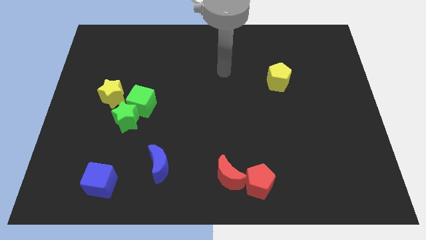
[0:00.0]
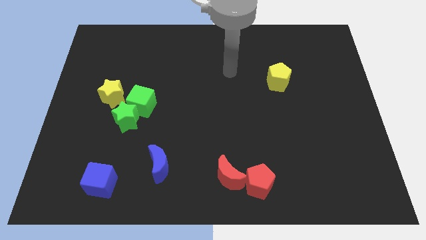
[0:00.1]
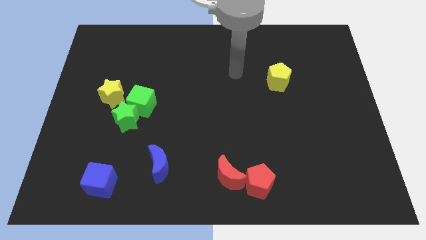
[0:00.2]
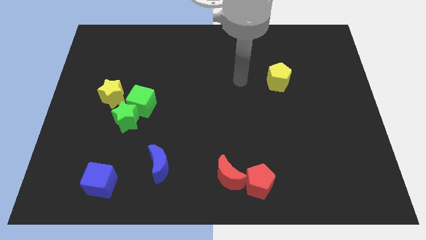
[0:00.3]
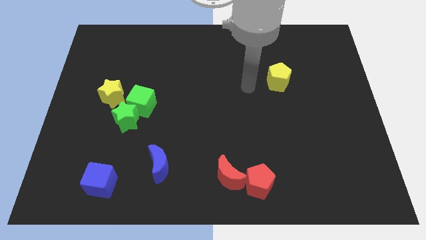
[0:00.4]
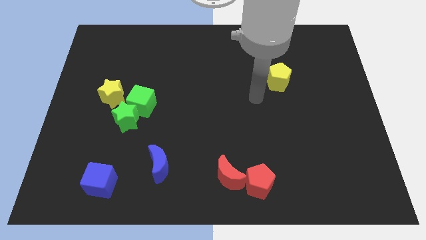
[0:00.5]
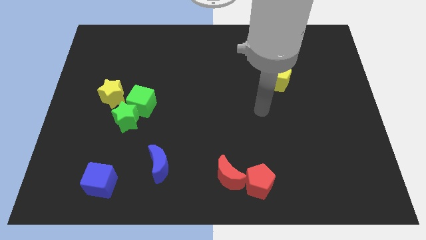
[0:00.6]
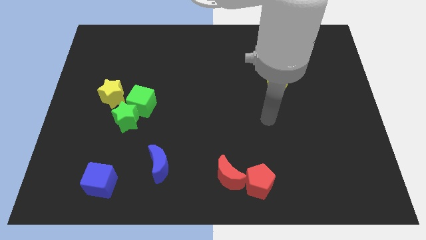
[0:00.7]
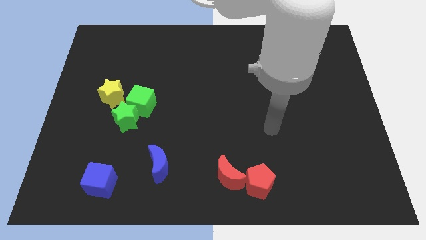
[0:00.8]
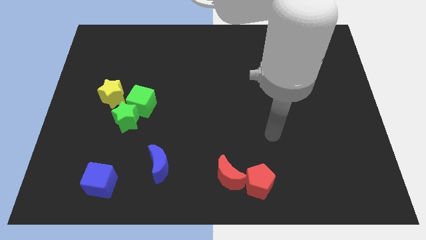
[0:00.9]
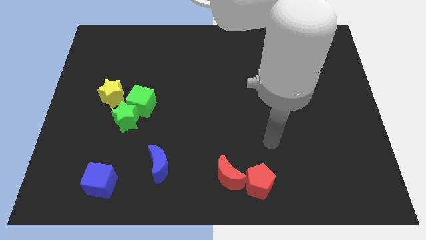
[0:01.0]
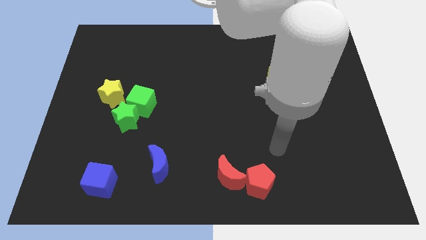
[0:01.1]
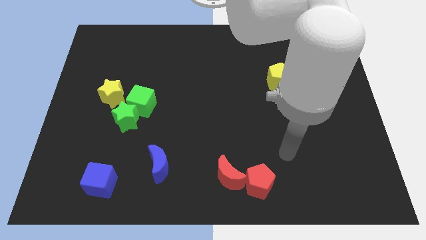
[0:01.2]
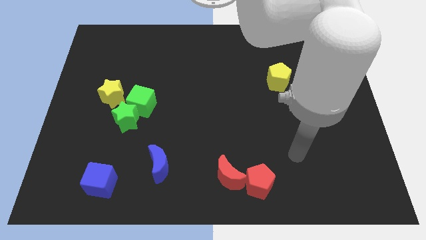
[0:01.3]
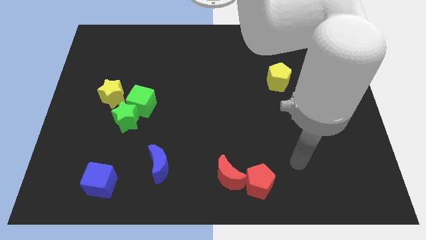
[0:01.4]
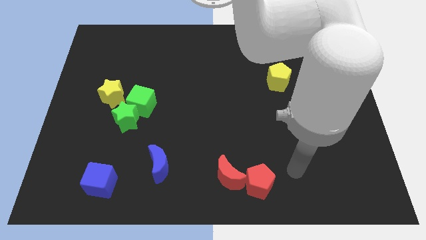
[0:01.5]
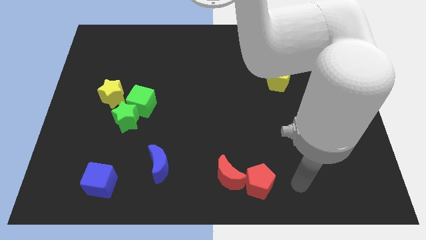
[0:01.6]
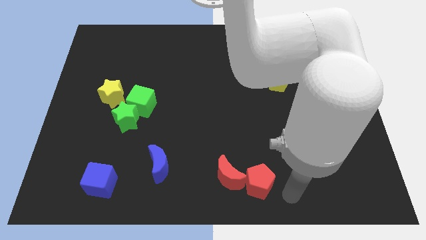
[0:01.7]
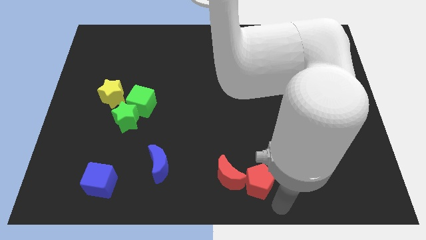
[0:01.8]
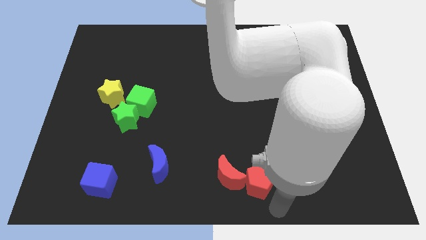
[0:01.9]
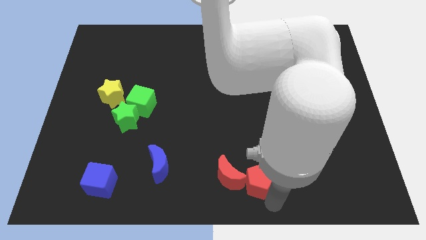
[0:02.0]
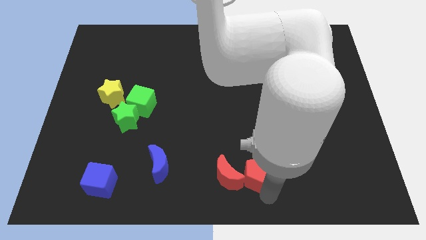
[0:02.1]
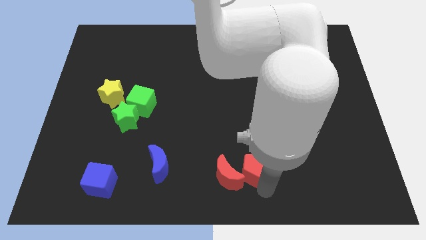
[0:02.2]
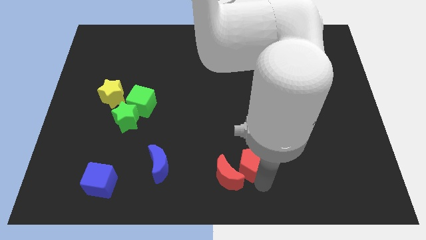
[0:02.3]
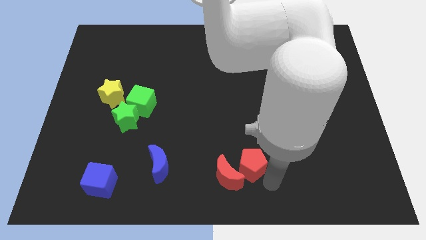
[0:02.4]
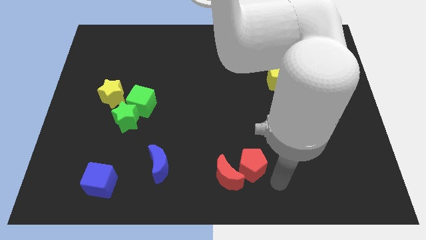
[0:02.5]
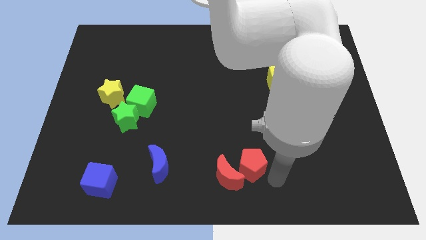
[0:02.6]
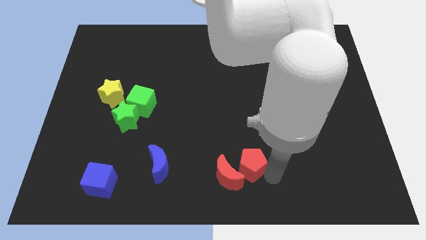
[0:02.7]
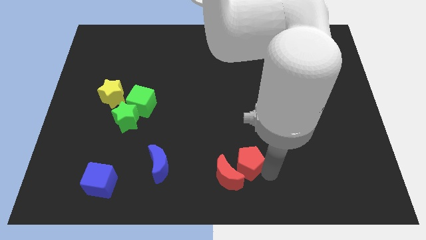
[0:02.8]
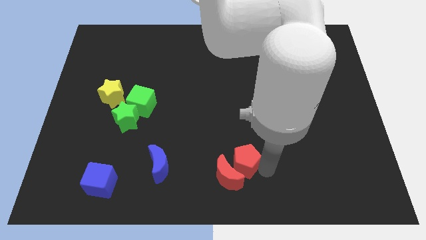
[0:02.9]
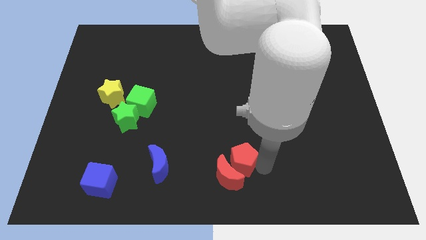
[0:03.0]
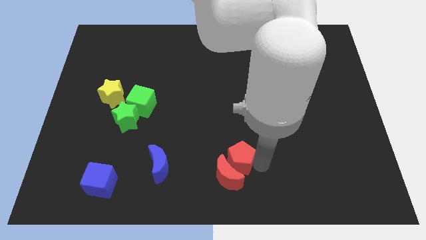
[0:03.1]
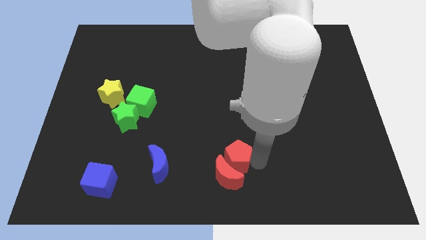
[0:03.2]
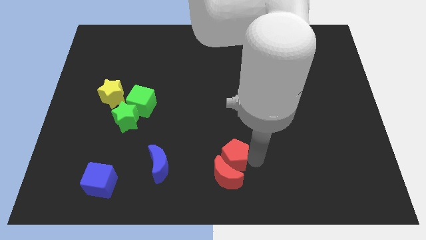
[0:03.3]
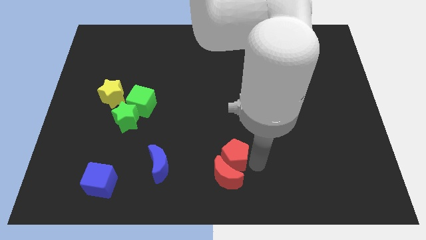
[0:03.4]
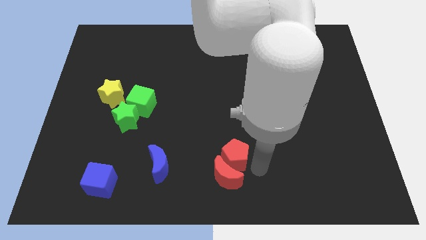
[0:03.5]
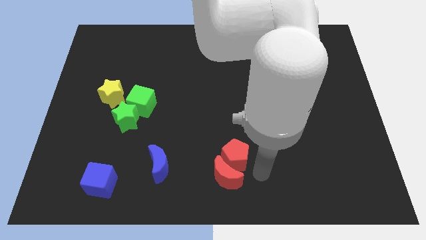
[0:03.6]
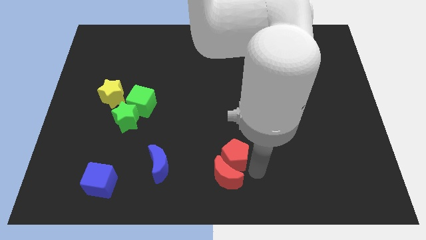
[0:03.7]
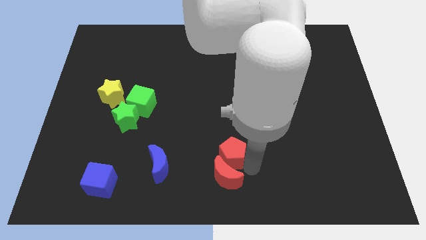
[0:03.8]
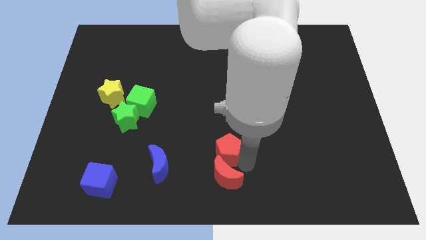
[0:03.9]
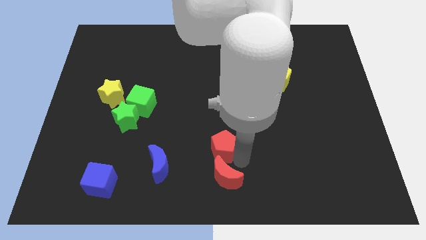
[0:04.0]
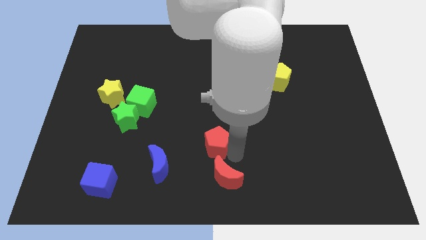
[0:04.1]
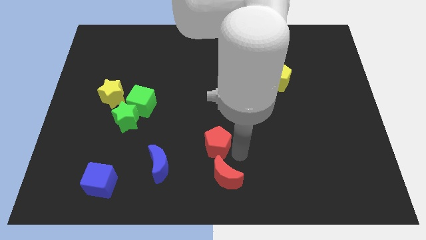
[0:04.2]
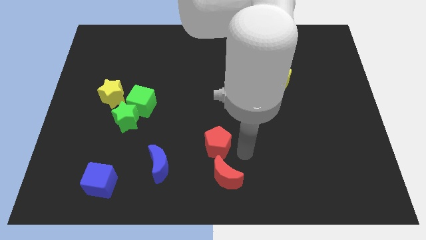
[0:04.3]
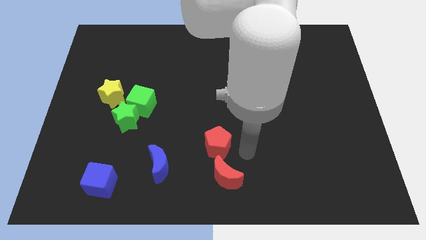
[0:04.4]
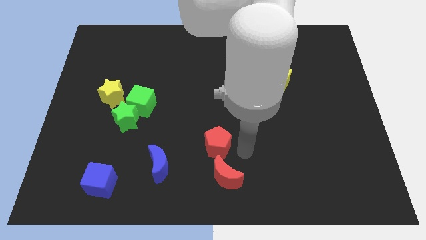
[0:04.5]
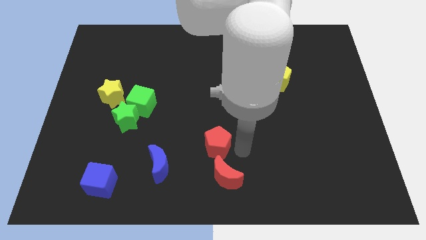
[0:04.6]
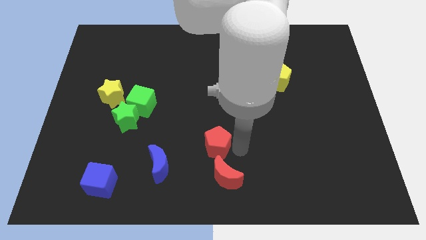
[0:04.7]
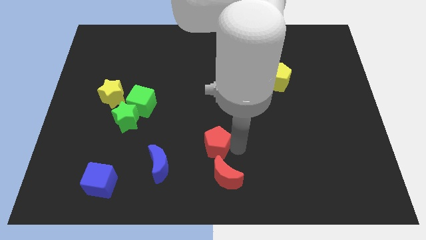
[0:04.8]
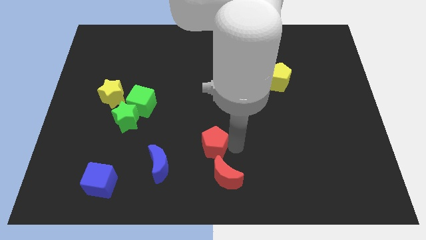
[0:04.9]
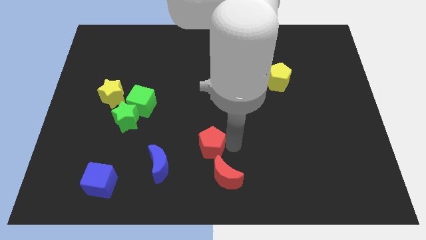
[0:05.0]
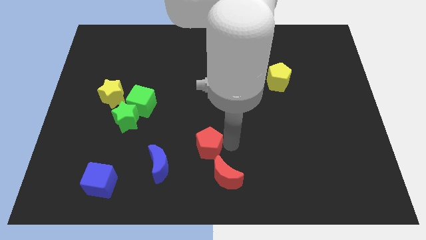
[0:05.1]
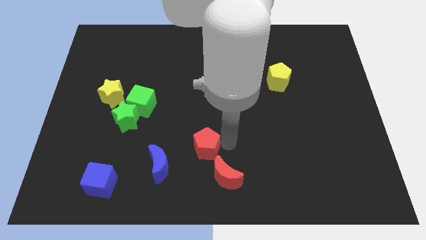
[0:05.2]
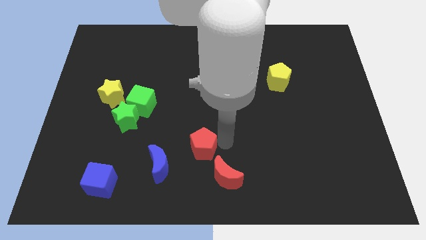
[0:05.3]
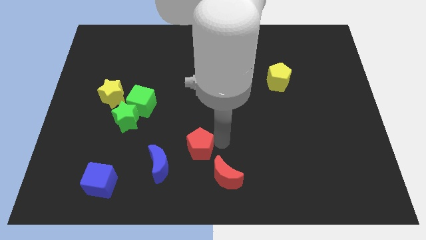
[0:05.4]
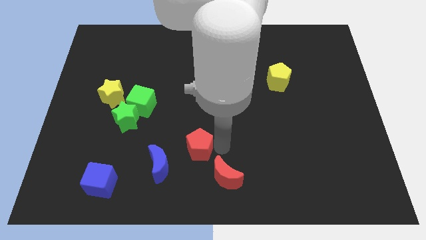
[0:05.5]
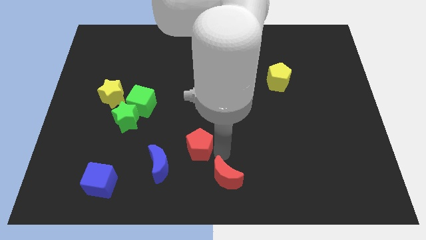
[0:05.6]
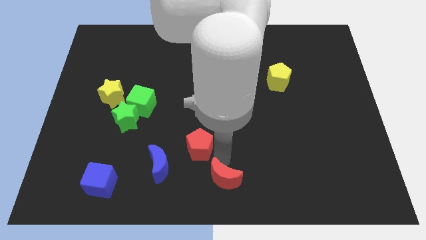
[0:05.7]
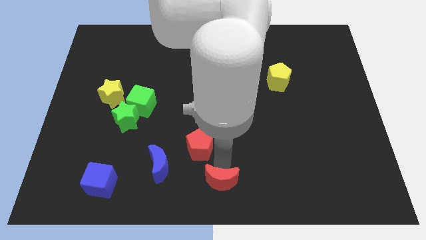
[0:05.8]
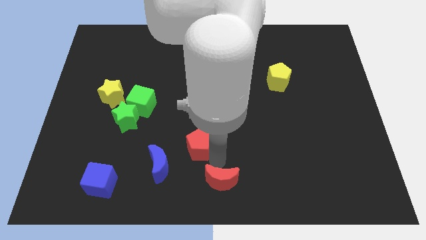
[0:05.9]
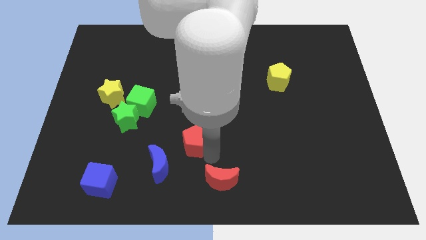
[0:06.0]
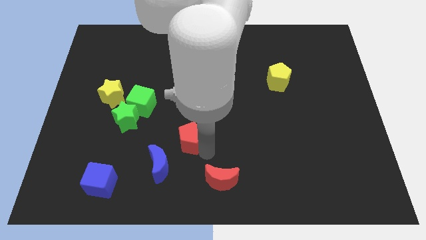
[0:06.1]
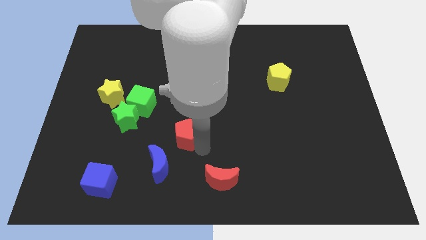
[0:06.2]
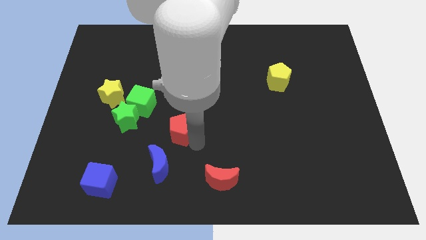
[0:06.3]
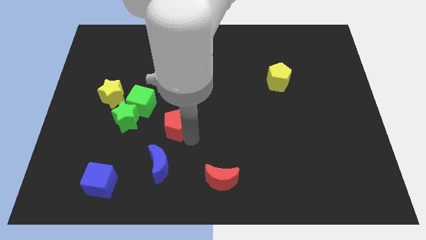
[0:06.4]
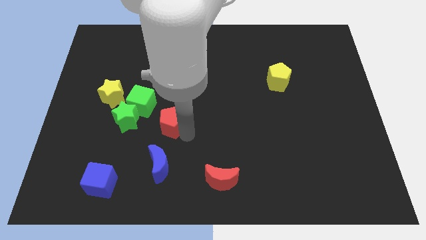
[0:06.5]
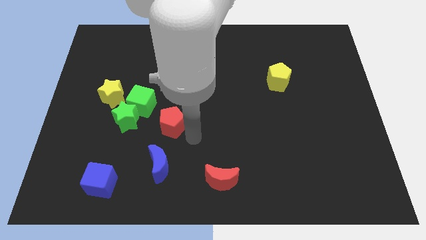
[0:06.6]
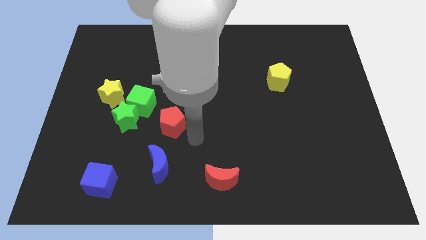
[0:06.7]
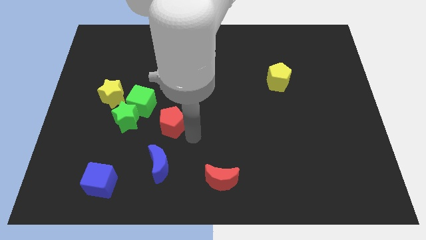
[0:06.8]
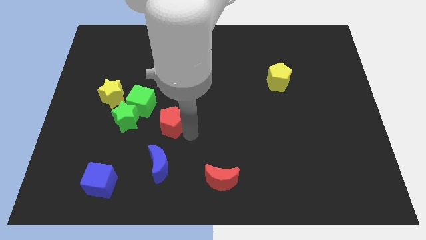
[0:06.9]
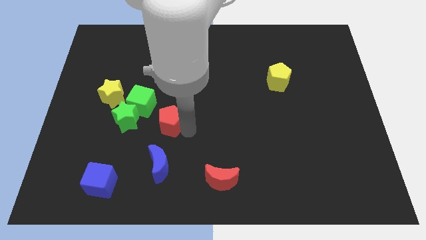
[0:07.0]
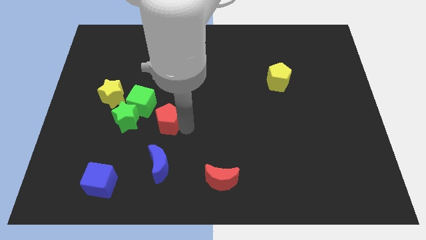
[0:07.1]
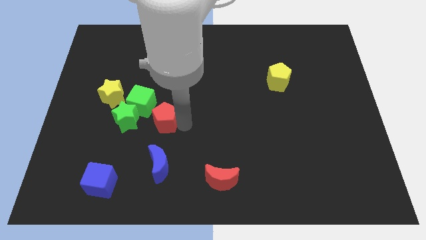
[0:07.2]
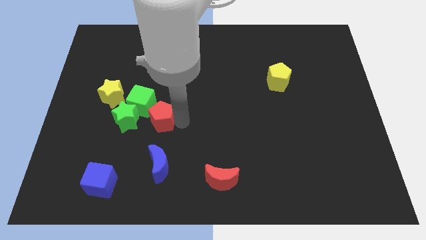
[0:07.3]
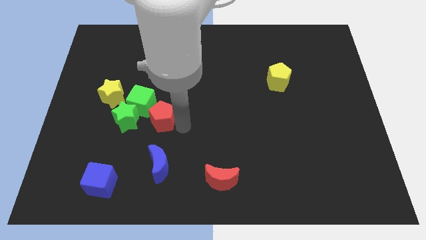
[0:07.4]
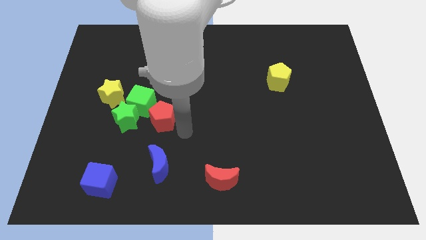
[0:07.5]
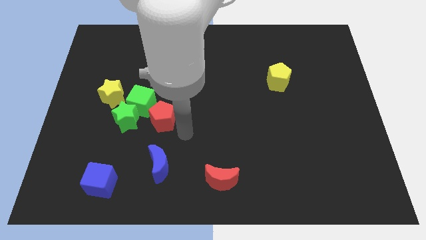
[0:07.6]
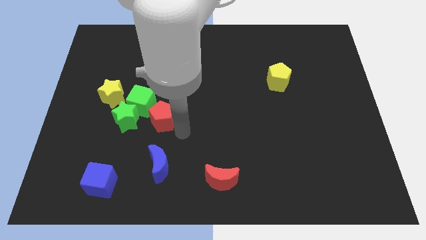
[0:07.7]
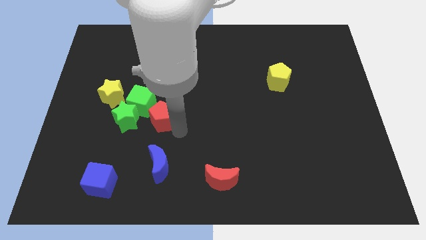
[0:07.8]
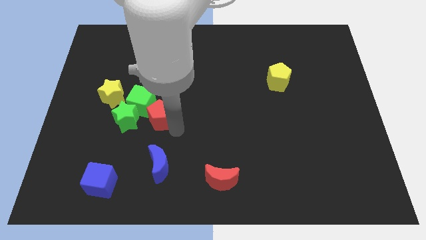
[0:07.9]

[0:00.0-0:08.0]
push the red pentagon towards the green cube
